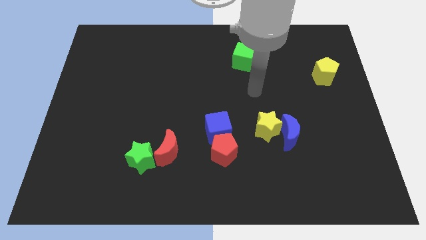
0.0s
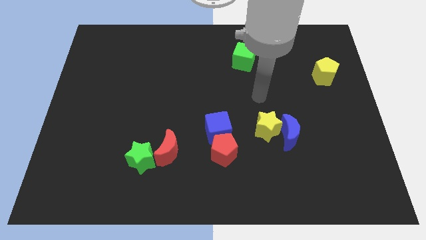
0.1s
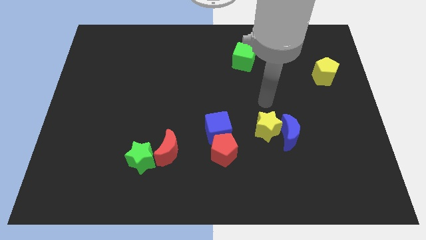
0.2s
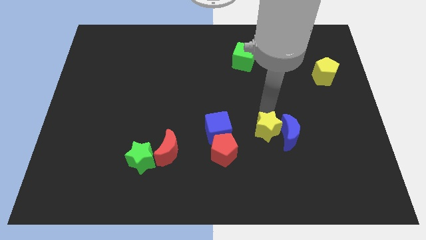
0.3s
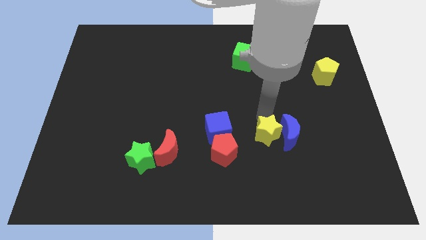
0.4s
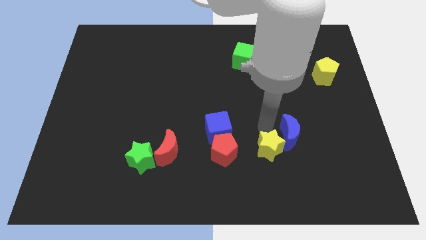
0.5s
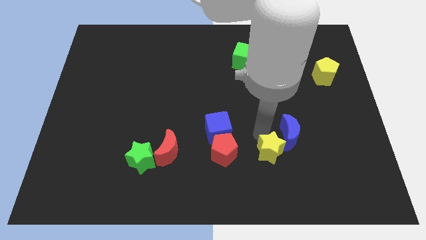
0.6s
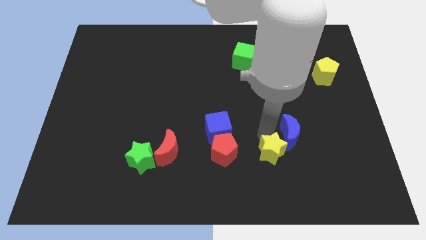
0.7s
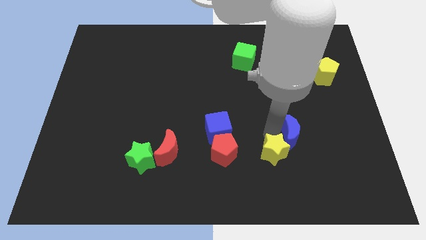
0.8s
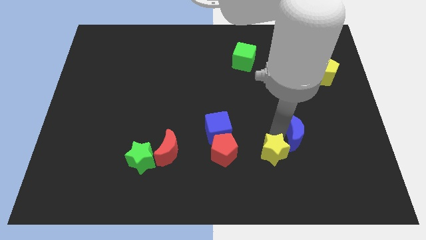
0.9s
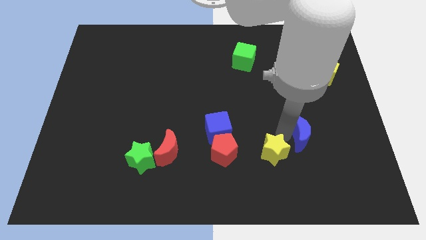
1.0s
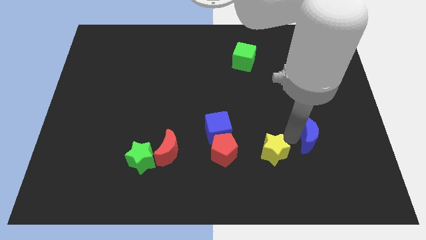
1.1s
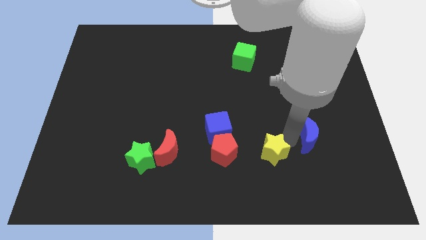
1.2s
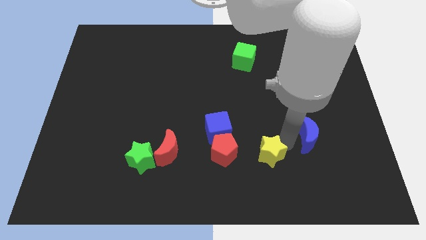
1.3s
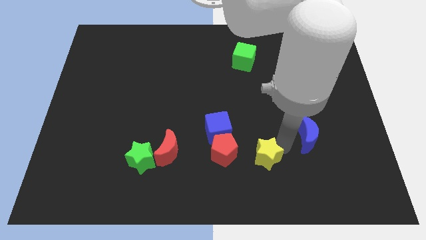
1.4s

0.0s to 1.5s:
move the blue moon away from the yellow star

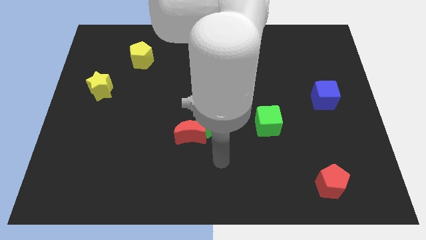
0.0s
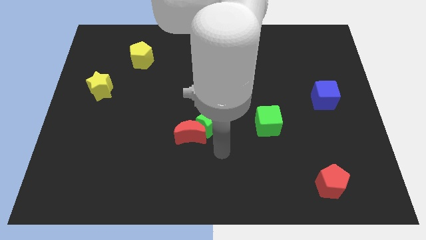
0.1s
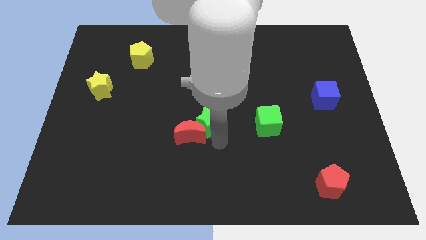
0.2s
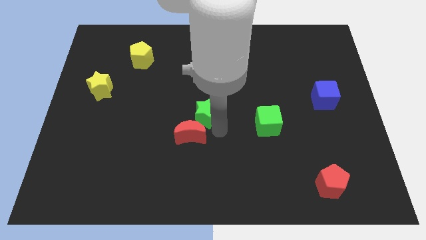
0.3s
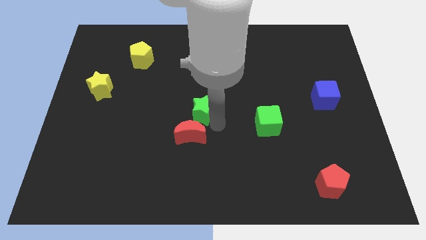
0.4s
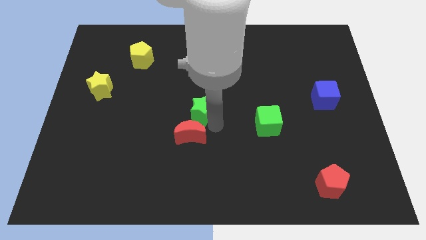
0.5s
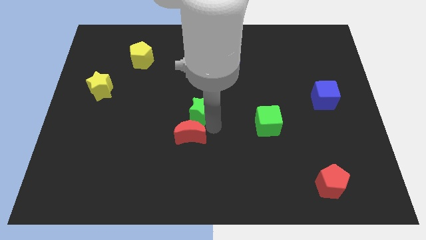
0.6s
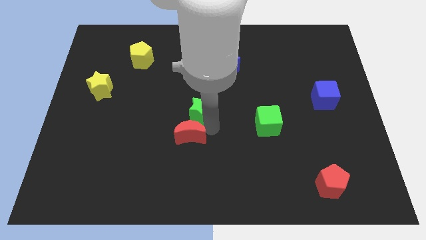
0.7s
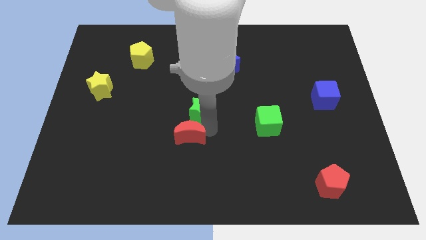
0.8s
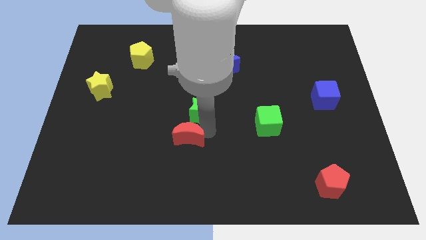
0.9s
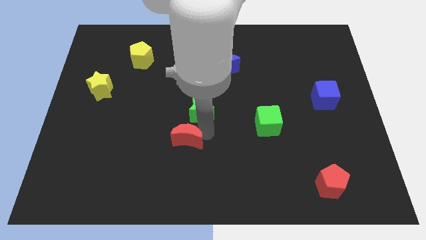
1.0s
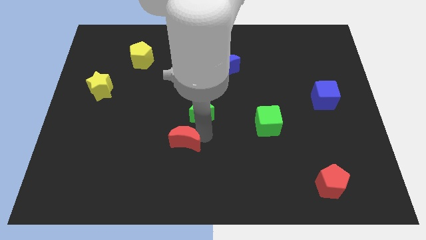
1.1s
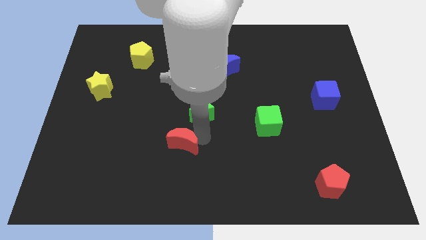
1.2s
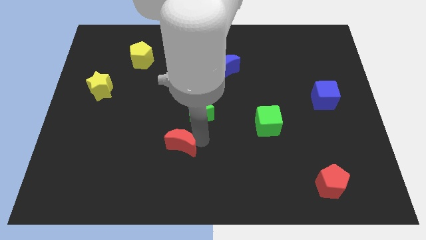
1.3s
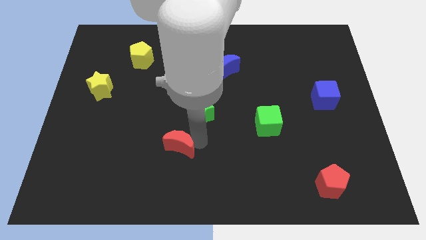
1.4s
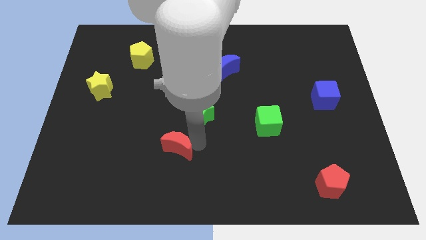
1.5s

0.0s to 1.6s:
pull the red moon apart from the green star

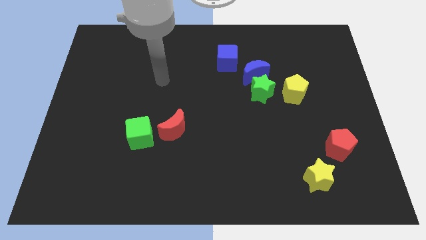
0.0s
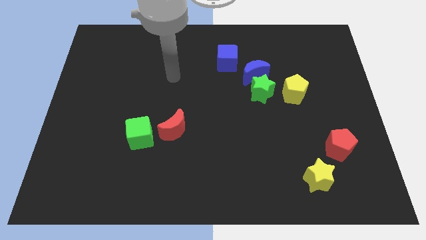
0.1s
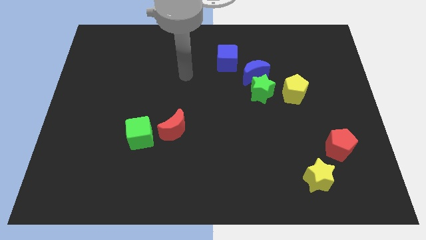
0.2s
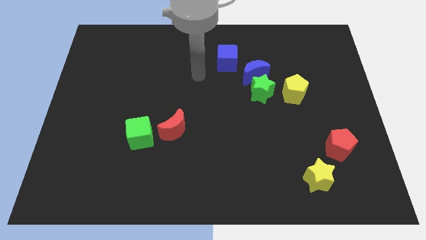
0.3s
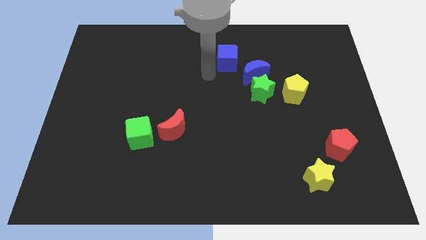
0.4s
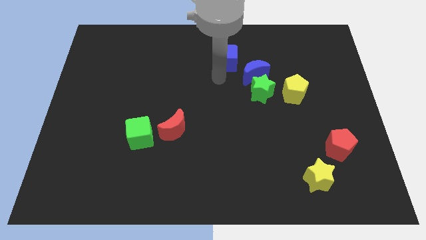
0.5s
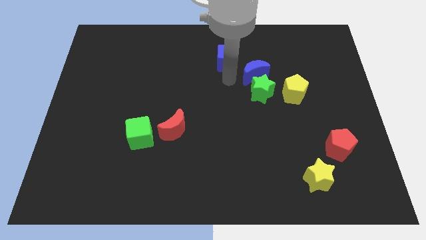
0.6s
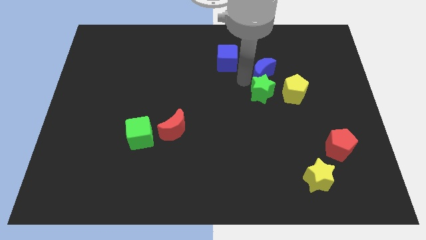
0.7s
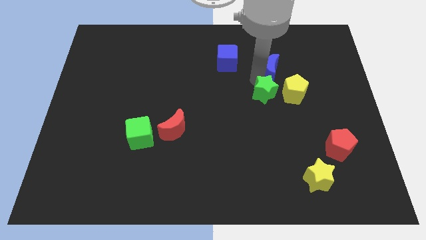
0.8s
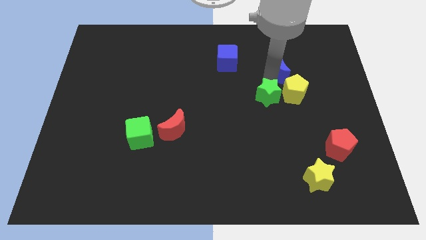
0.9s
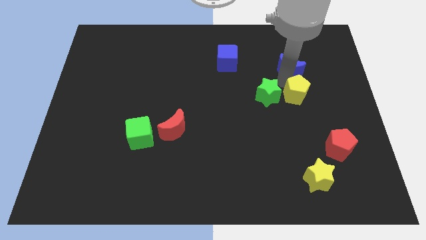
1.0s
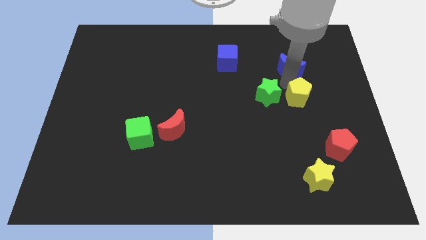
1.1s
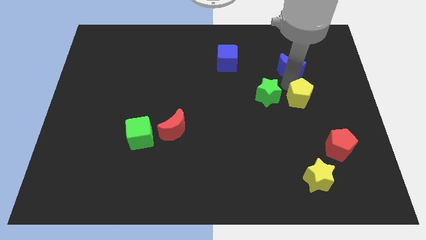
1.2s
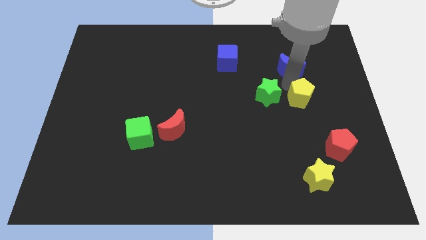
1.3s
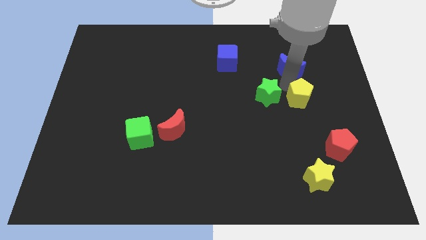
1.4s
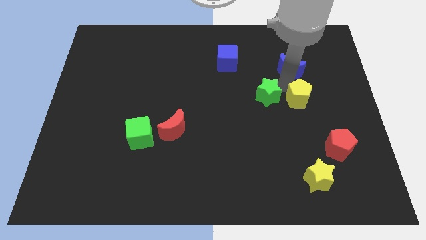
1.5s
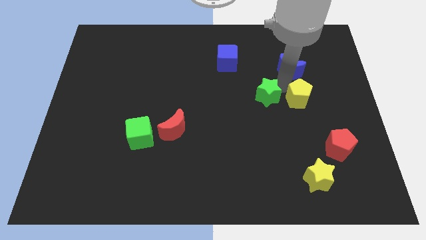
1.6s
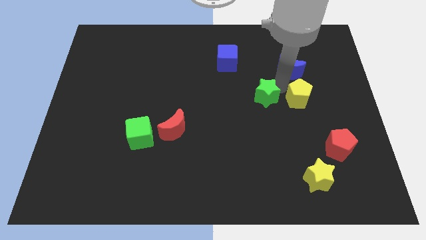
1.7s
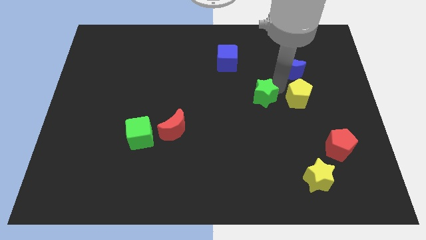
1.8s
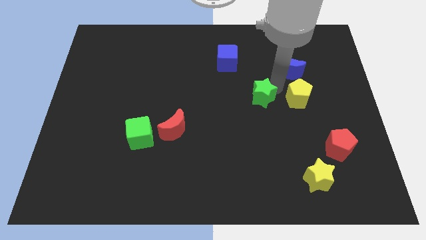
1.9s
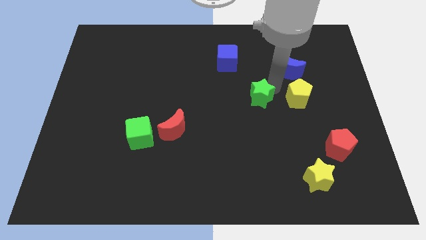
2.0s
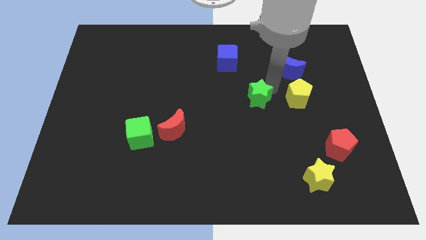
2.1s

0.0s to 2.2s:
move the green star away from the blue moon and yellow pentagon

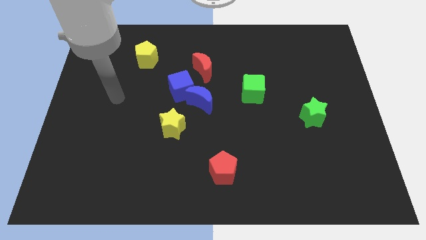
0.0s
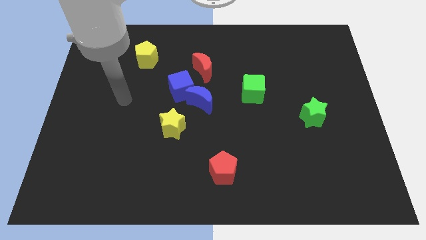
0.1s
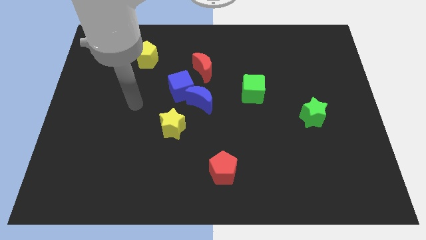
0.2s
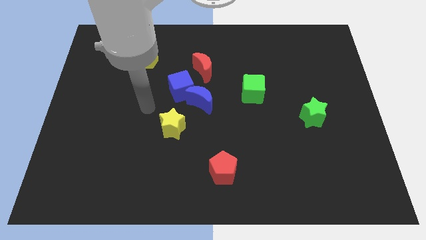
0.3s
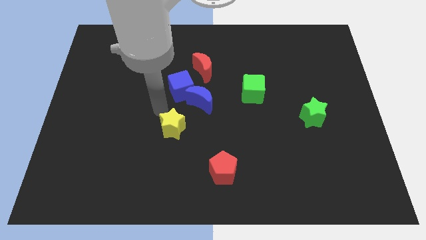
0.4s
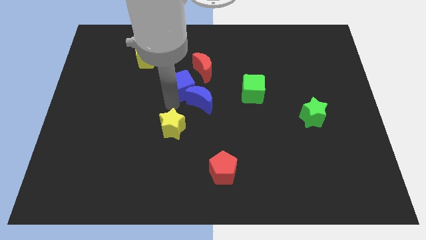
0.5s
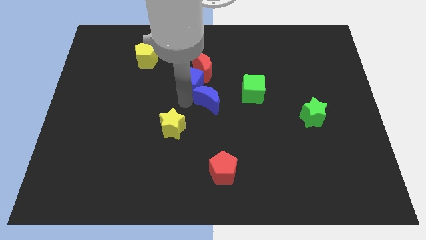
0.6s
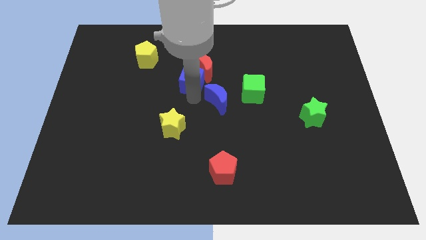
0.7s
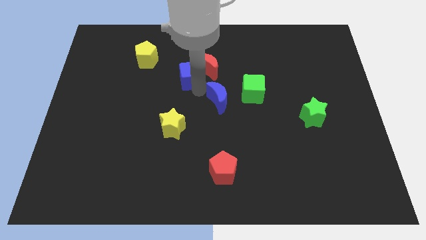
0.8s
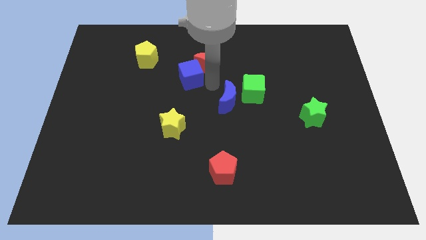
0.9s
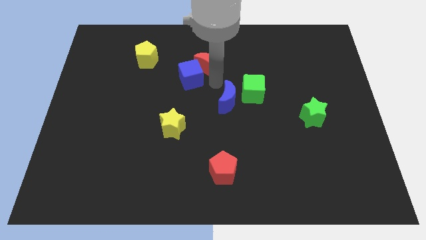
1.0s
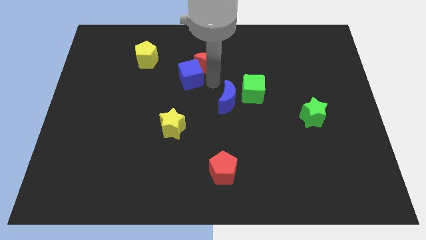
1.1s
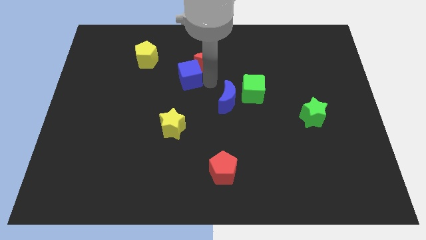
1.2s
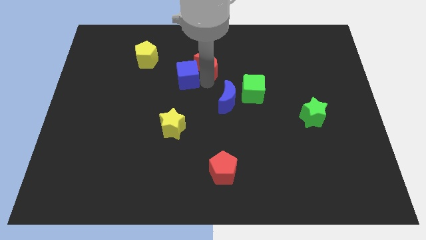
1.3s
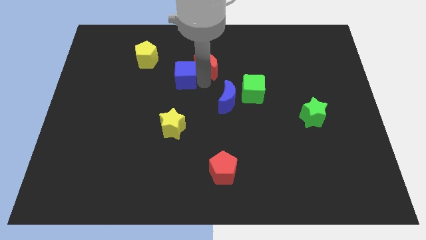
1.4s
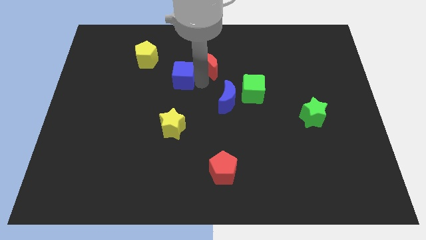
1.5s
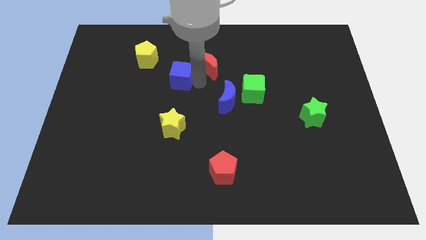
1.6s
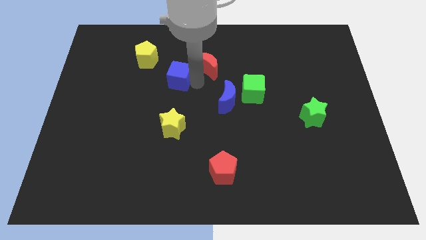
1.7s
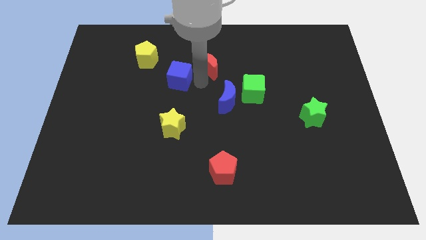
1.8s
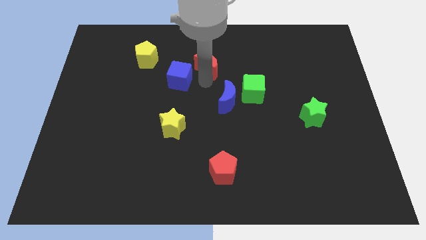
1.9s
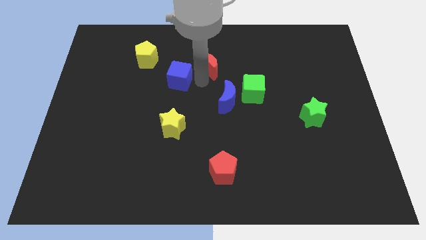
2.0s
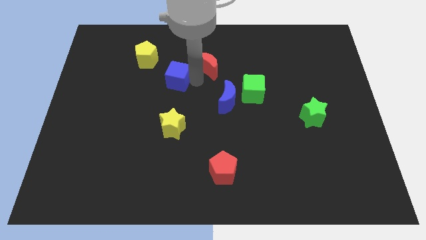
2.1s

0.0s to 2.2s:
pull the blue cube apart from the blue moon and red moon

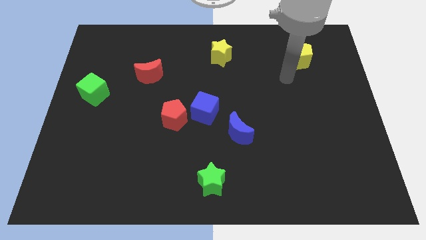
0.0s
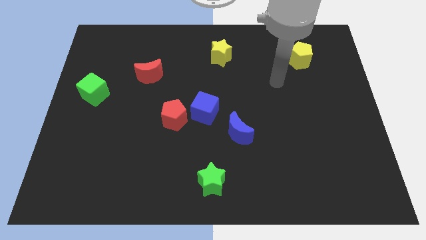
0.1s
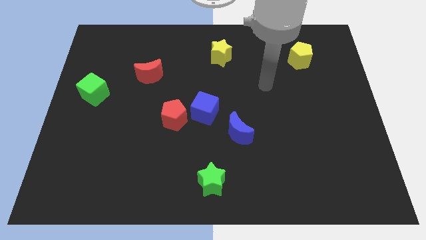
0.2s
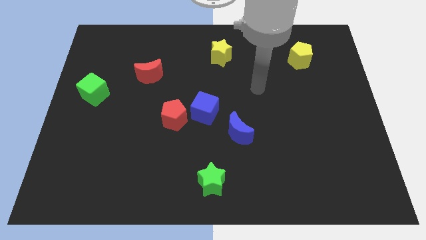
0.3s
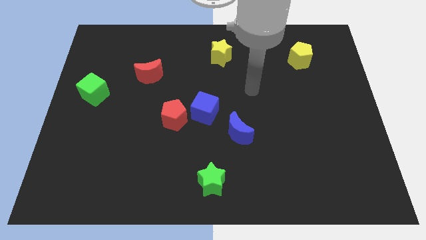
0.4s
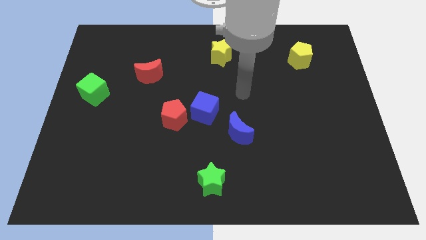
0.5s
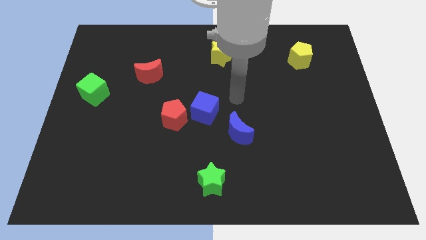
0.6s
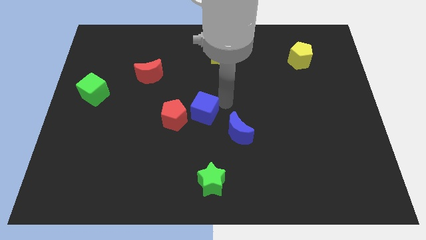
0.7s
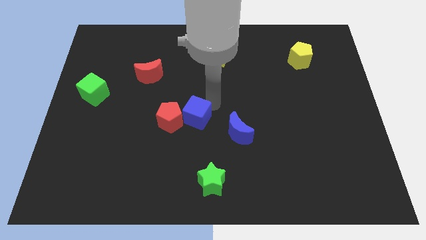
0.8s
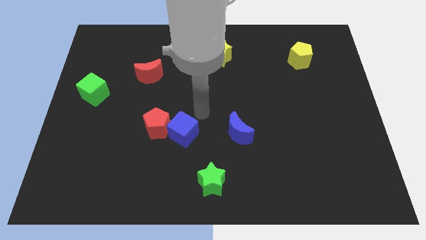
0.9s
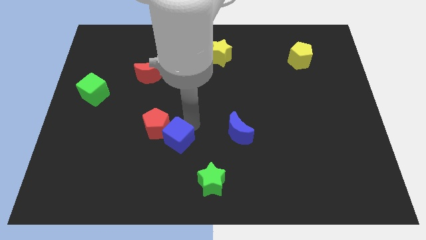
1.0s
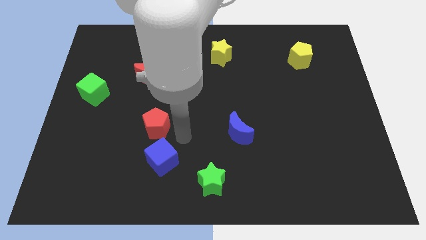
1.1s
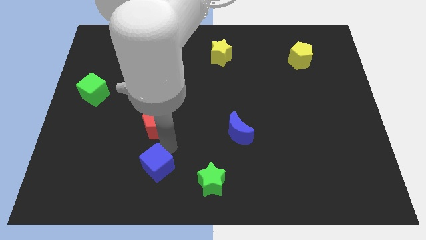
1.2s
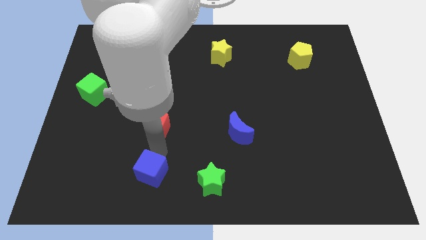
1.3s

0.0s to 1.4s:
pull the red pentagon apart from the blue cube

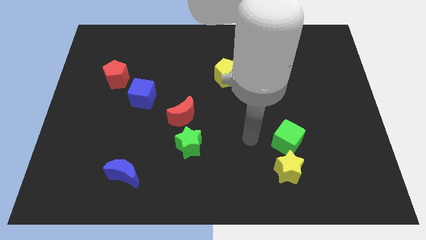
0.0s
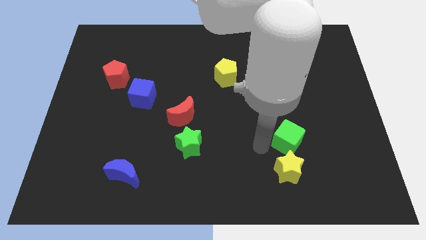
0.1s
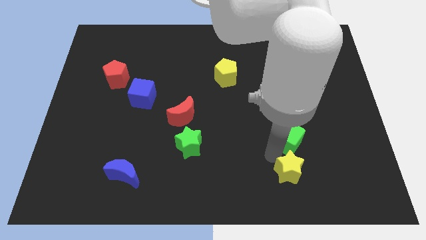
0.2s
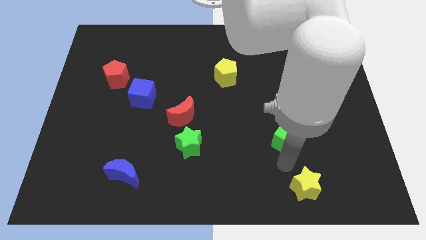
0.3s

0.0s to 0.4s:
separate the green cube from the yellow star
